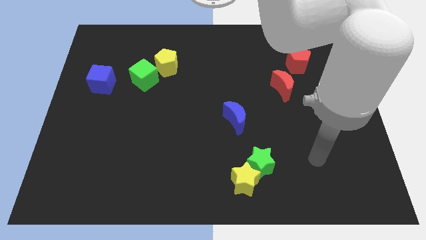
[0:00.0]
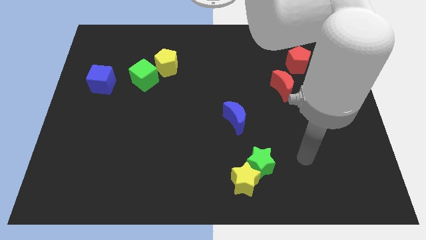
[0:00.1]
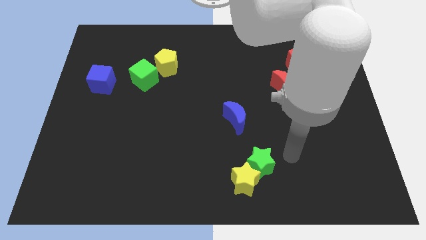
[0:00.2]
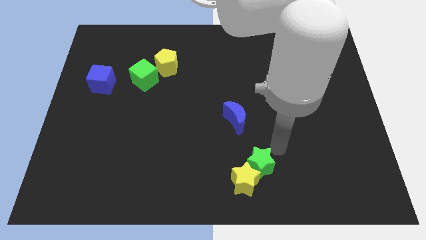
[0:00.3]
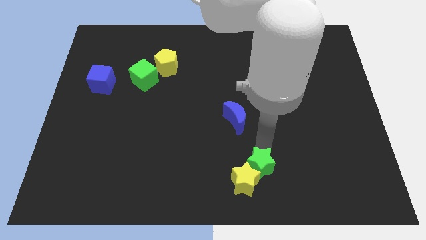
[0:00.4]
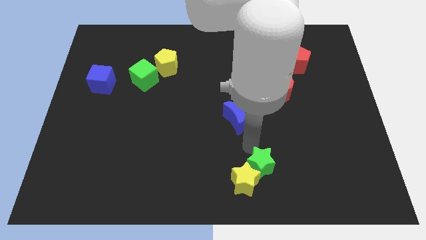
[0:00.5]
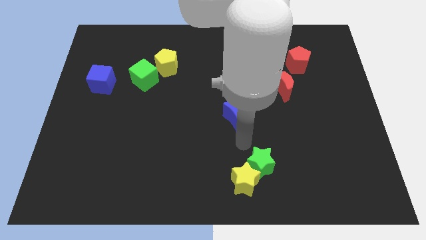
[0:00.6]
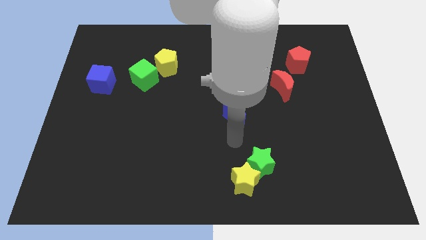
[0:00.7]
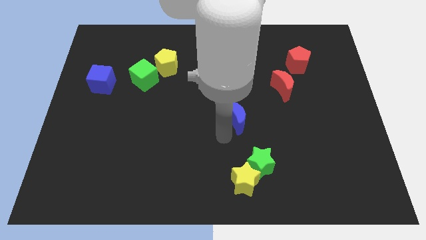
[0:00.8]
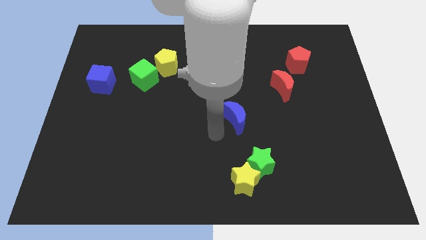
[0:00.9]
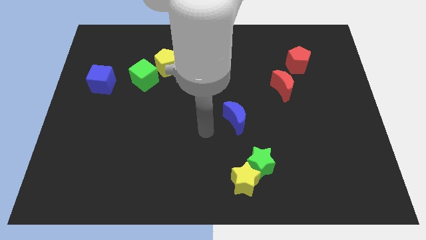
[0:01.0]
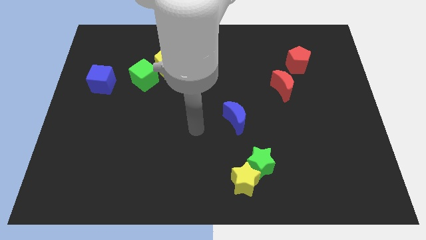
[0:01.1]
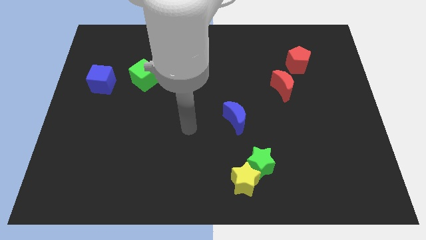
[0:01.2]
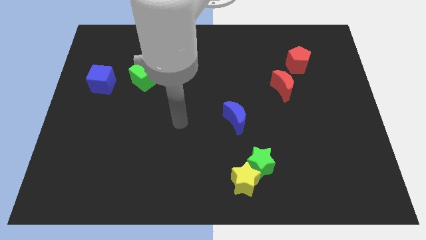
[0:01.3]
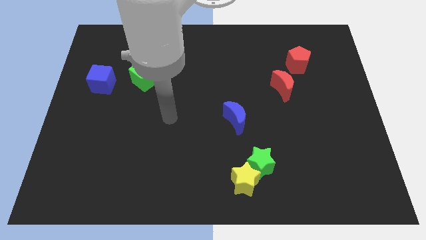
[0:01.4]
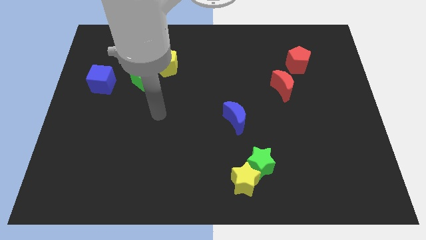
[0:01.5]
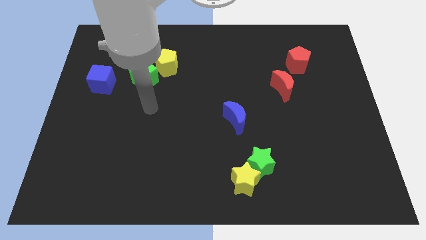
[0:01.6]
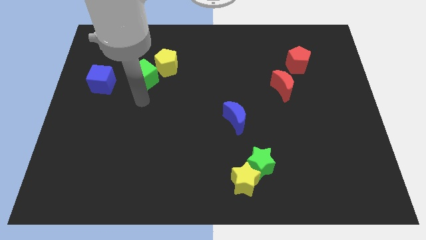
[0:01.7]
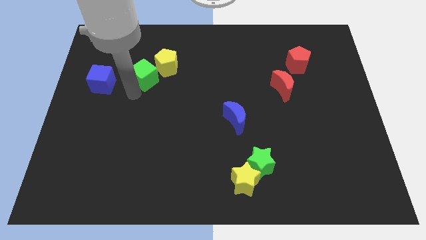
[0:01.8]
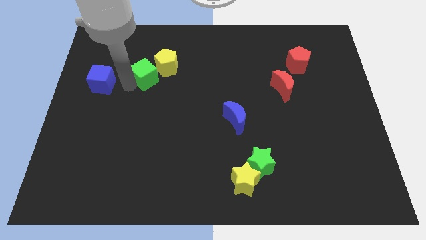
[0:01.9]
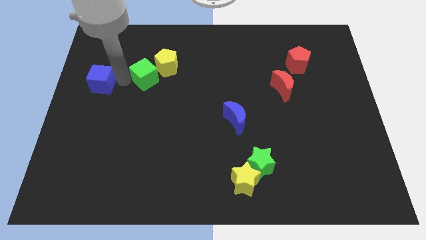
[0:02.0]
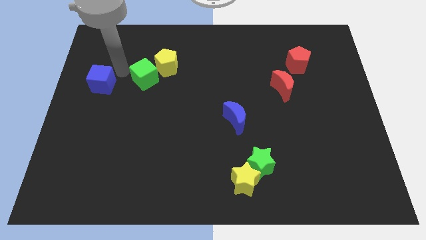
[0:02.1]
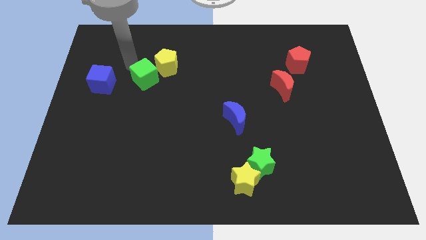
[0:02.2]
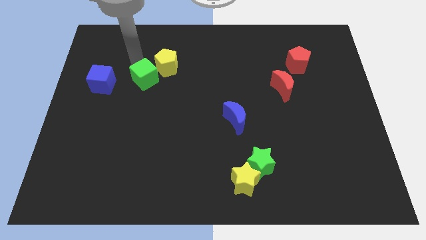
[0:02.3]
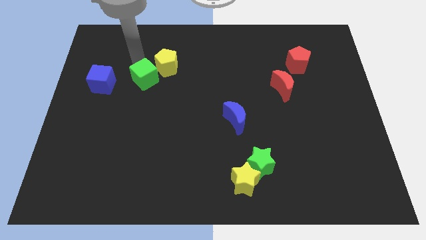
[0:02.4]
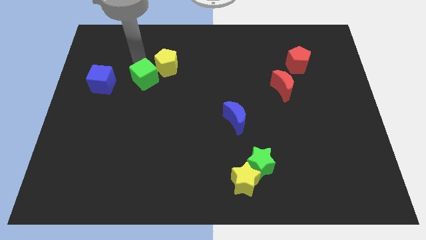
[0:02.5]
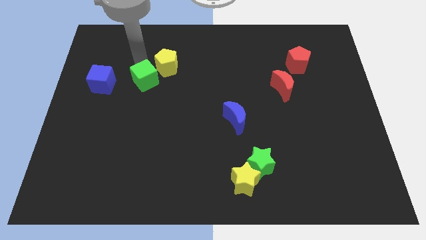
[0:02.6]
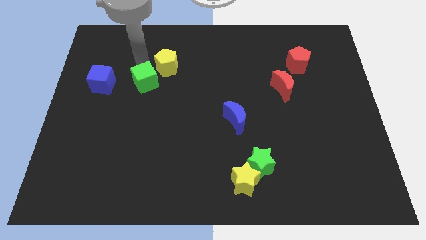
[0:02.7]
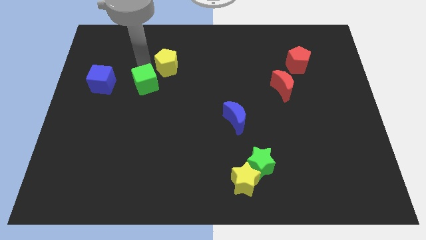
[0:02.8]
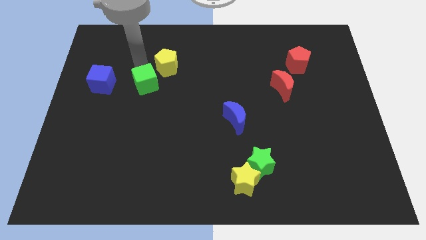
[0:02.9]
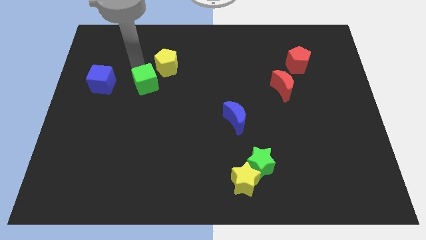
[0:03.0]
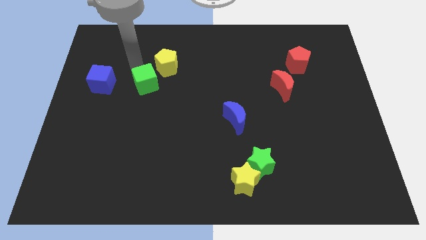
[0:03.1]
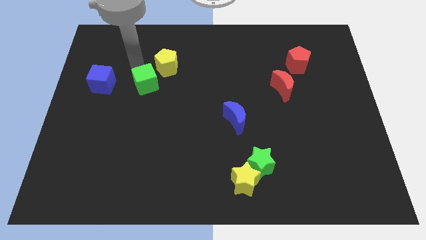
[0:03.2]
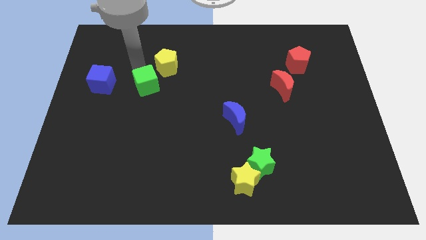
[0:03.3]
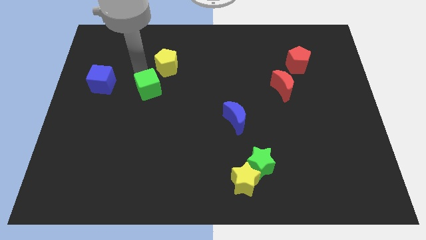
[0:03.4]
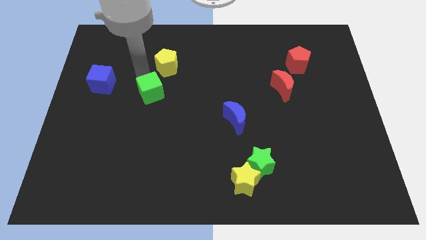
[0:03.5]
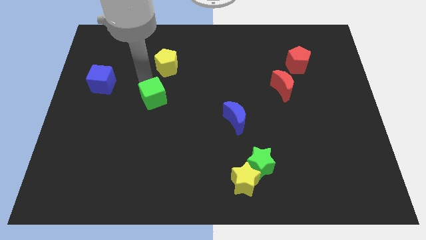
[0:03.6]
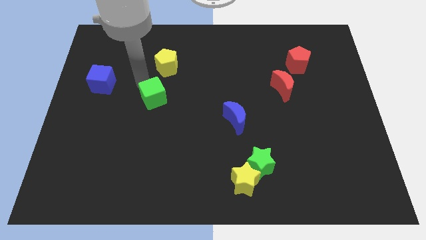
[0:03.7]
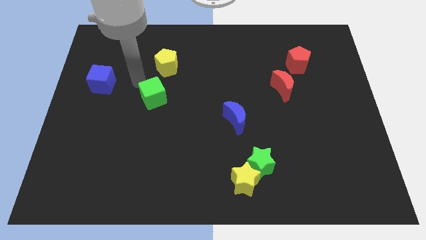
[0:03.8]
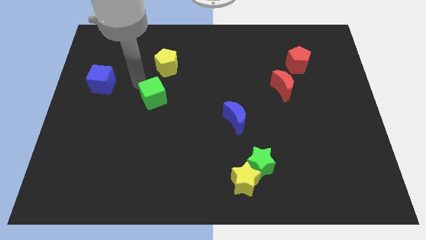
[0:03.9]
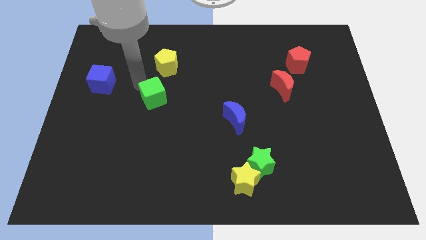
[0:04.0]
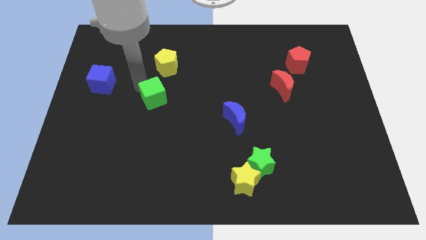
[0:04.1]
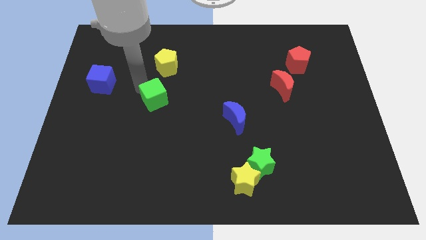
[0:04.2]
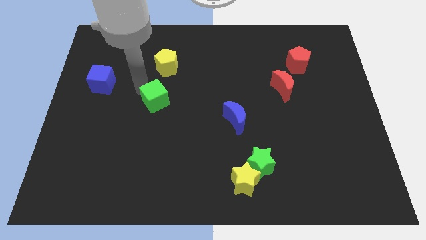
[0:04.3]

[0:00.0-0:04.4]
slightly slide the green cube down and to the right diagonally

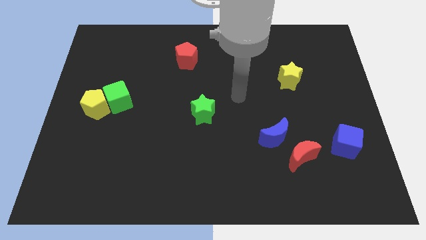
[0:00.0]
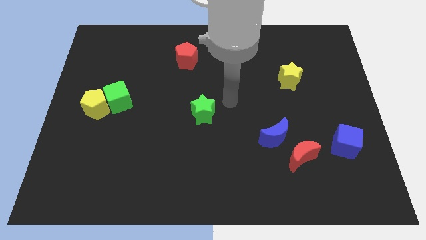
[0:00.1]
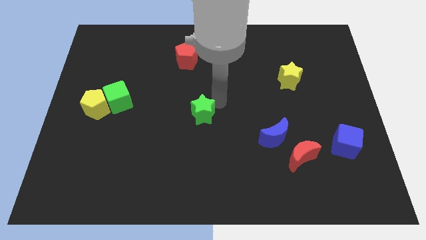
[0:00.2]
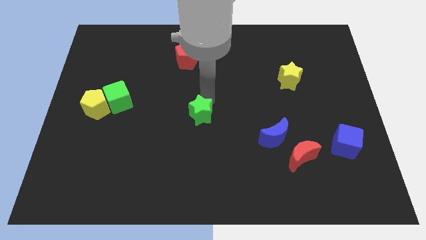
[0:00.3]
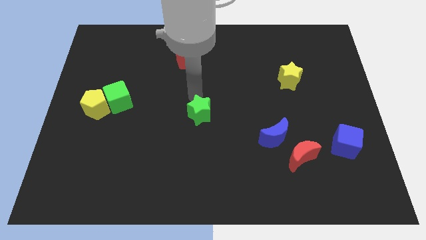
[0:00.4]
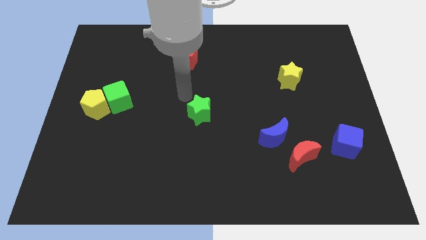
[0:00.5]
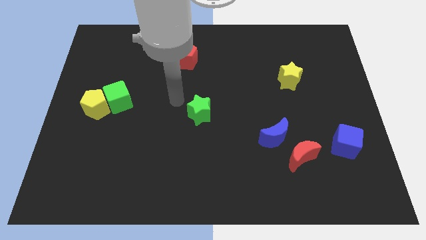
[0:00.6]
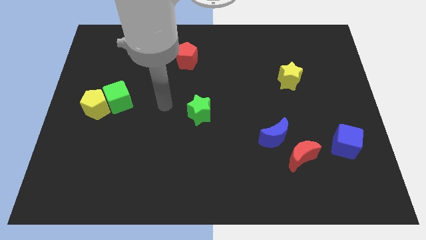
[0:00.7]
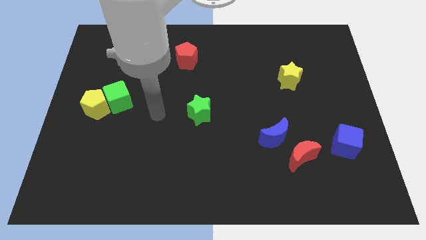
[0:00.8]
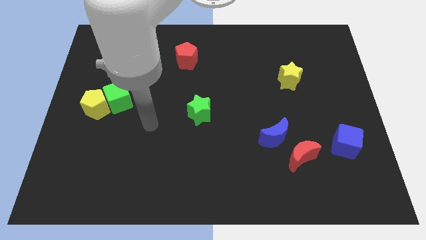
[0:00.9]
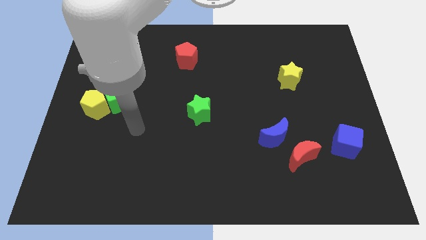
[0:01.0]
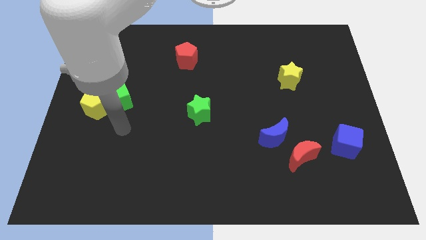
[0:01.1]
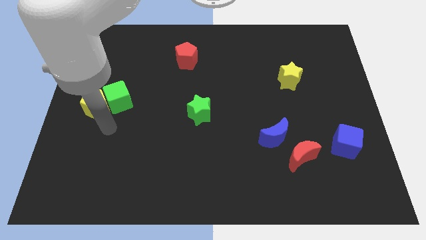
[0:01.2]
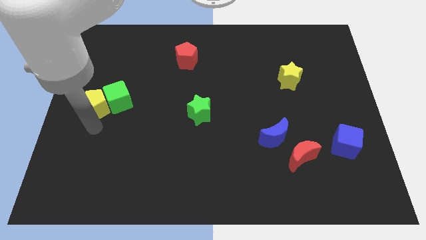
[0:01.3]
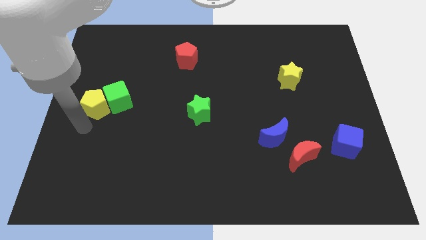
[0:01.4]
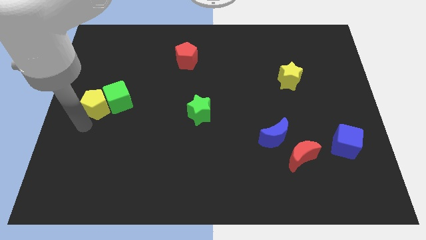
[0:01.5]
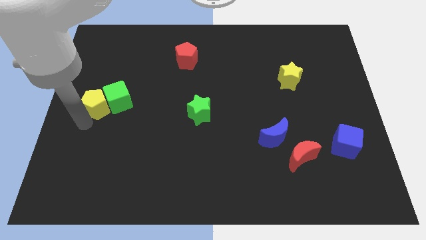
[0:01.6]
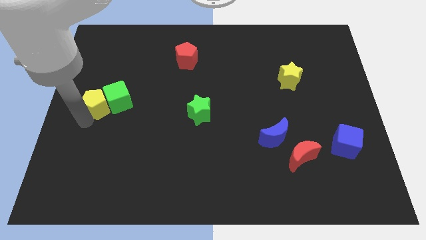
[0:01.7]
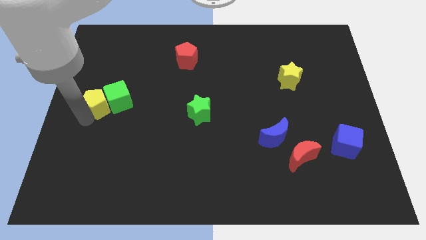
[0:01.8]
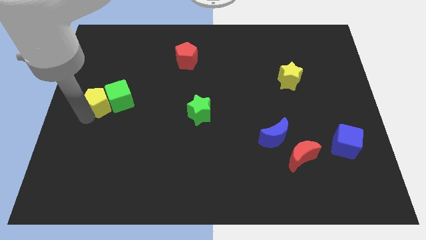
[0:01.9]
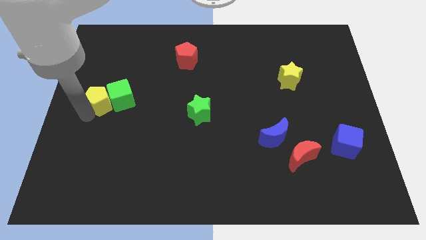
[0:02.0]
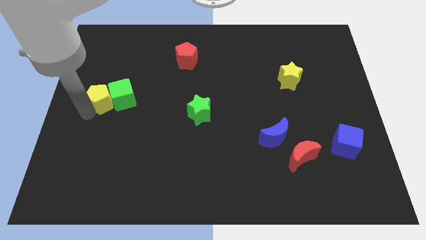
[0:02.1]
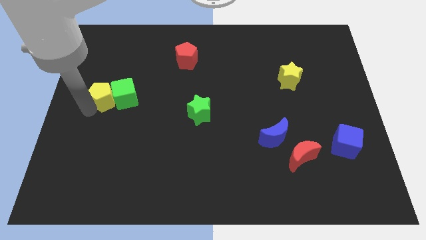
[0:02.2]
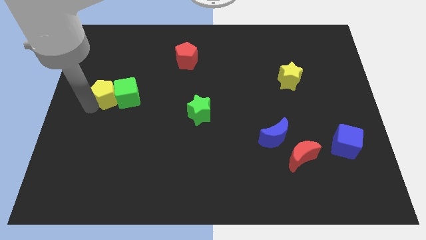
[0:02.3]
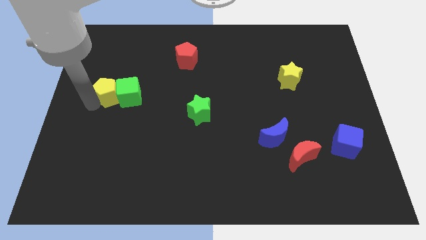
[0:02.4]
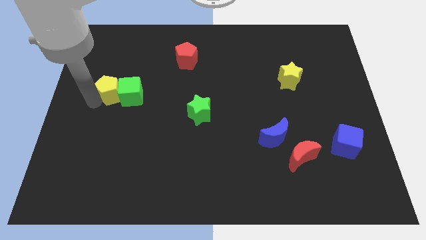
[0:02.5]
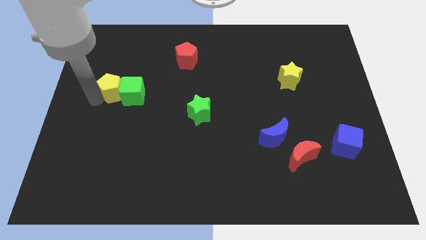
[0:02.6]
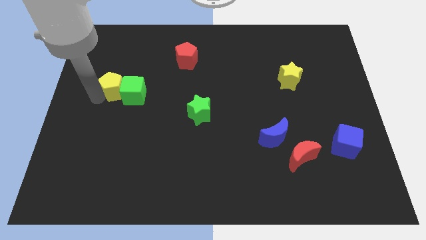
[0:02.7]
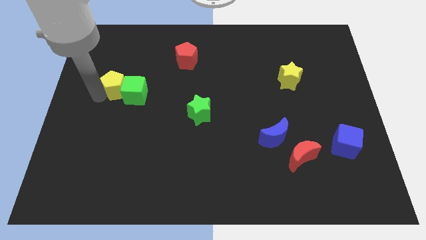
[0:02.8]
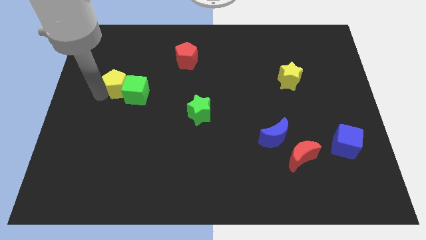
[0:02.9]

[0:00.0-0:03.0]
push the yellow pentagon upwards and right diagonally slightly

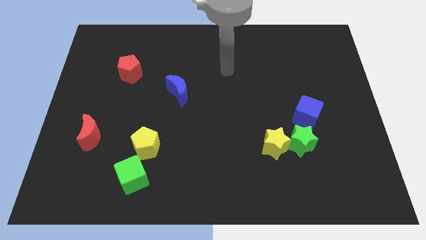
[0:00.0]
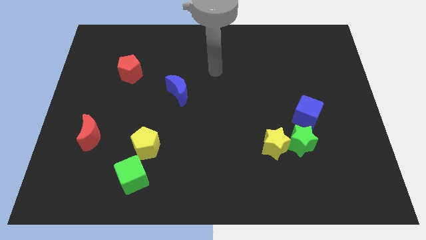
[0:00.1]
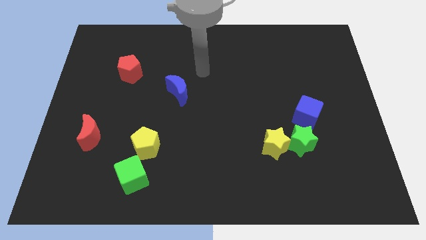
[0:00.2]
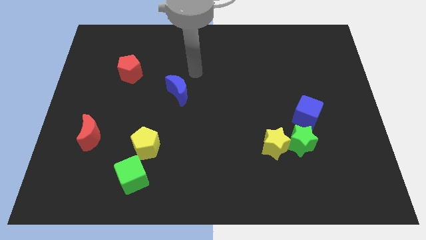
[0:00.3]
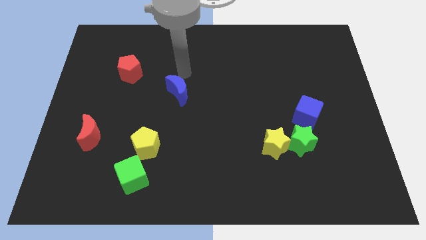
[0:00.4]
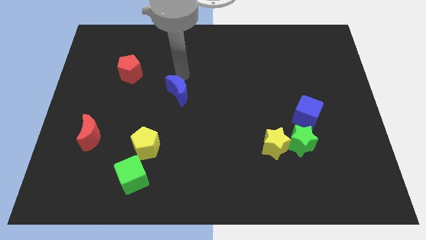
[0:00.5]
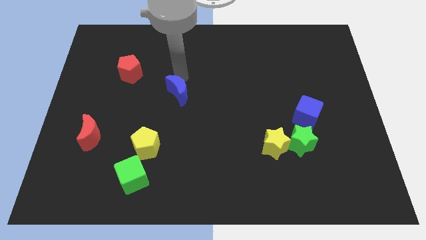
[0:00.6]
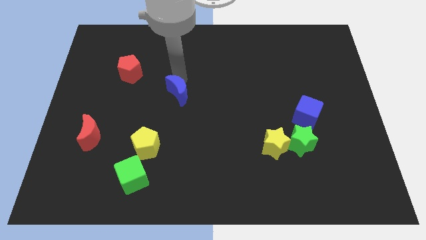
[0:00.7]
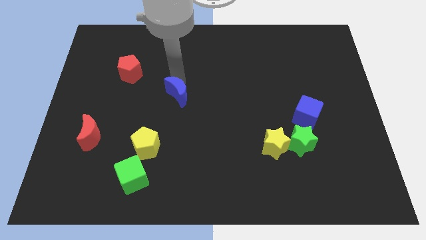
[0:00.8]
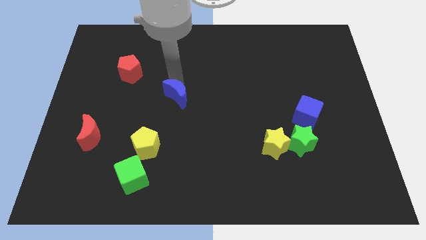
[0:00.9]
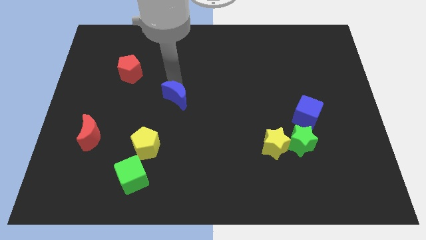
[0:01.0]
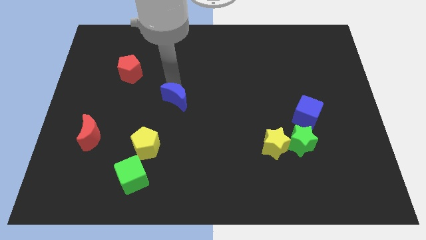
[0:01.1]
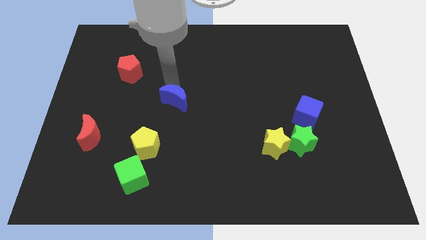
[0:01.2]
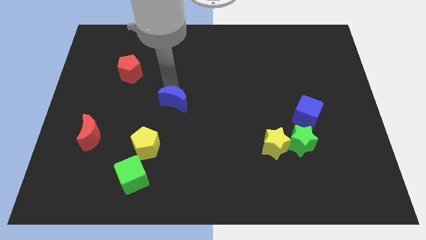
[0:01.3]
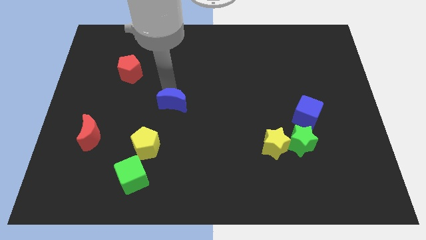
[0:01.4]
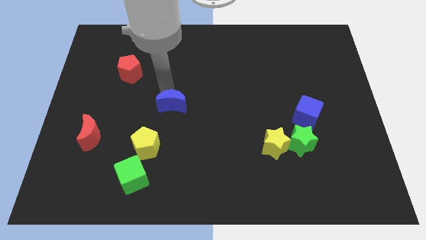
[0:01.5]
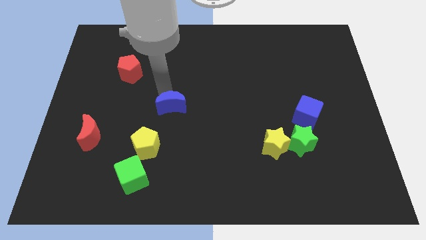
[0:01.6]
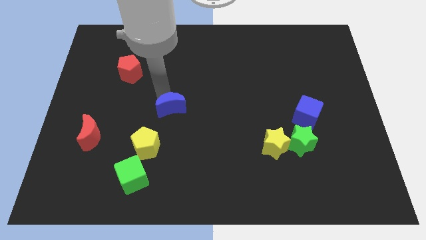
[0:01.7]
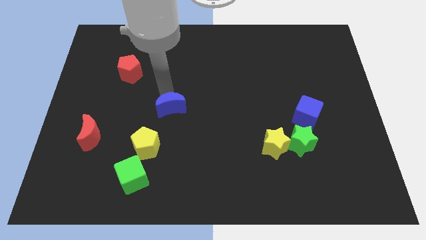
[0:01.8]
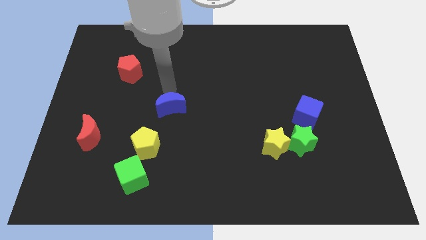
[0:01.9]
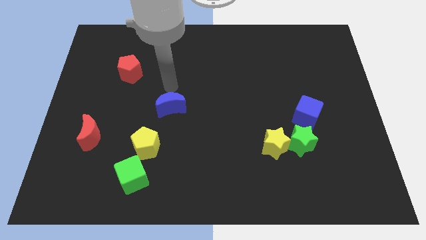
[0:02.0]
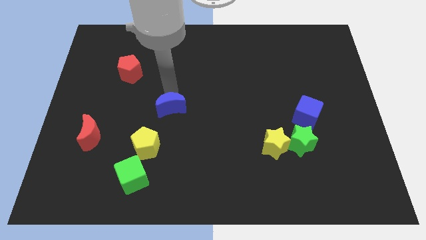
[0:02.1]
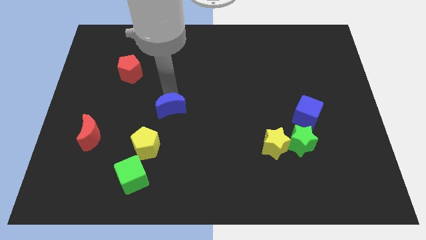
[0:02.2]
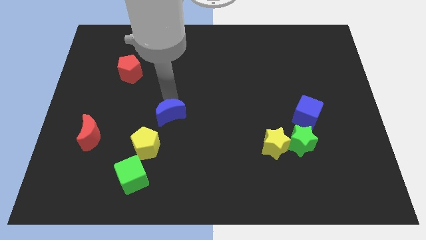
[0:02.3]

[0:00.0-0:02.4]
slightly push the blue moon downwards
